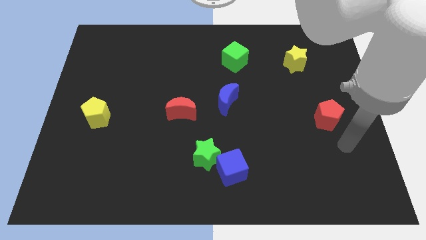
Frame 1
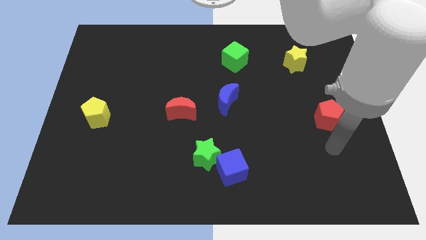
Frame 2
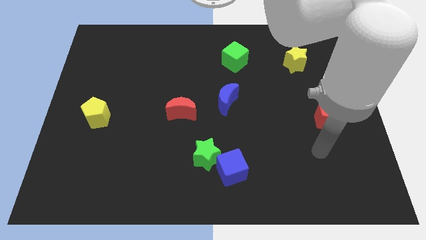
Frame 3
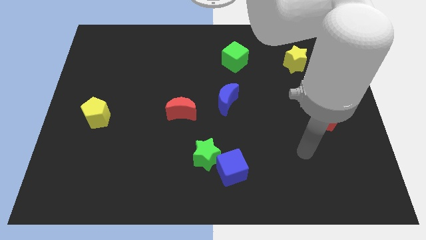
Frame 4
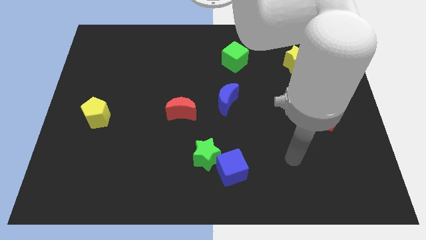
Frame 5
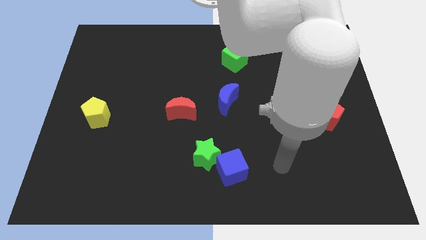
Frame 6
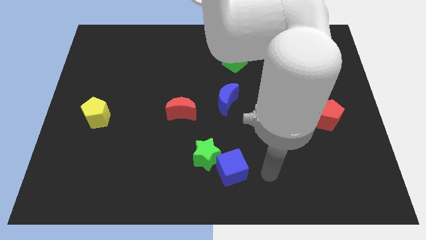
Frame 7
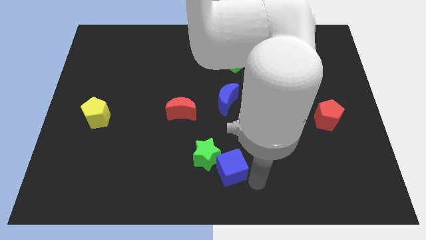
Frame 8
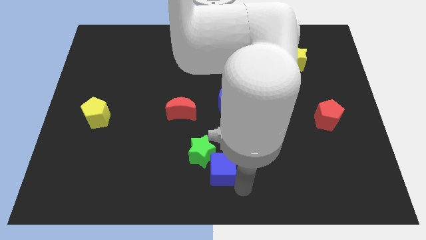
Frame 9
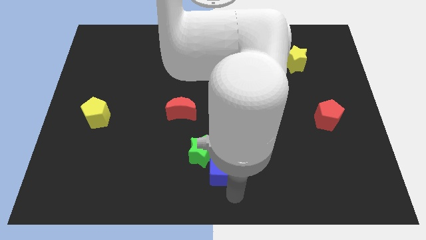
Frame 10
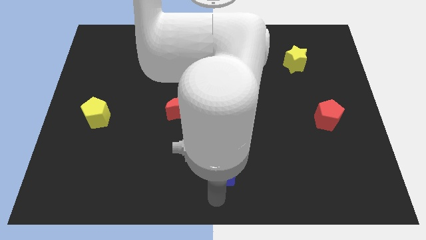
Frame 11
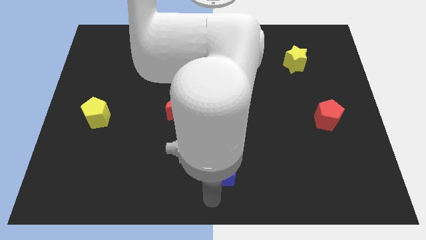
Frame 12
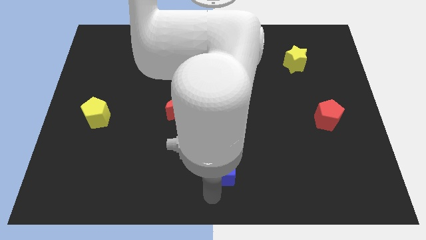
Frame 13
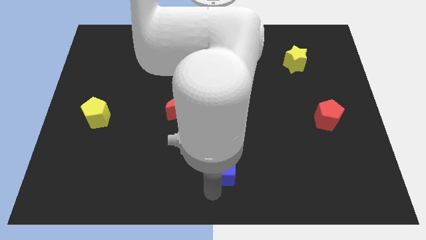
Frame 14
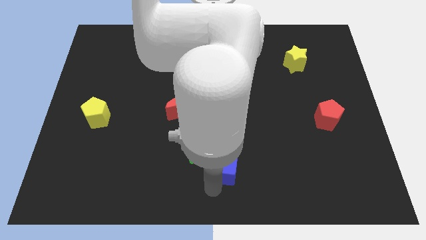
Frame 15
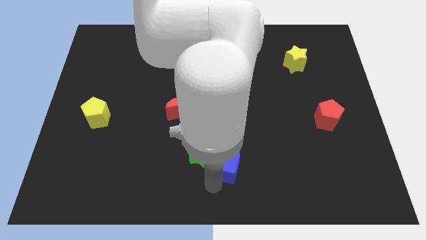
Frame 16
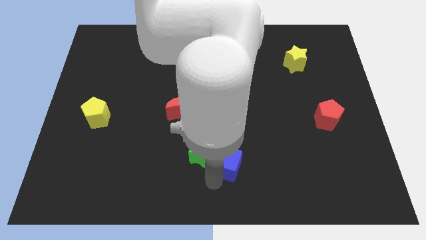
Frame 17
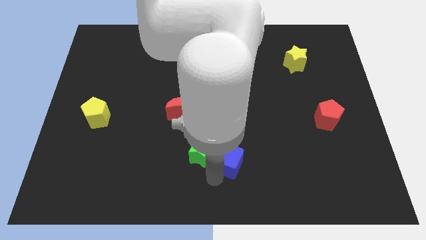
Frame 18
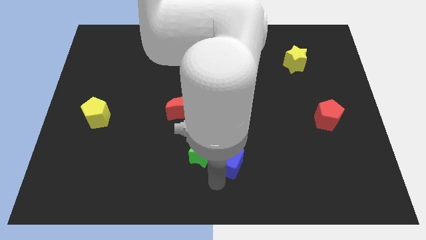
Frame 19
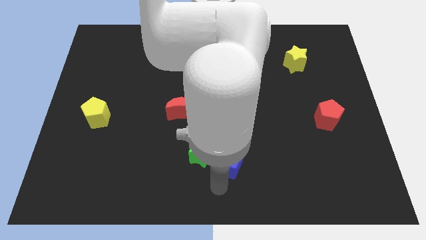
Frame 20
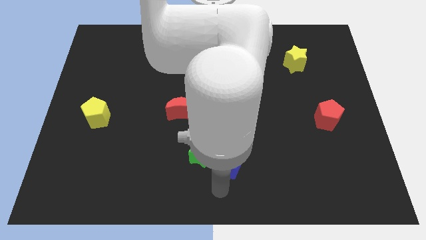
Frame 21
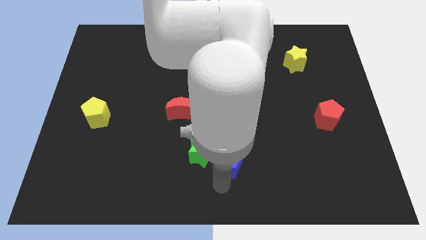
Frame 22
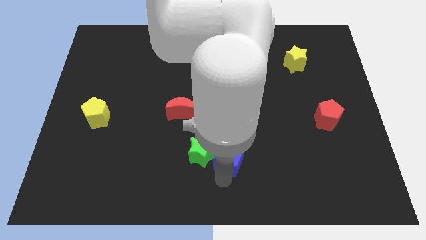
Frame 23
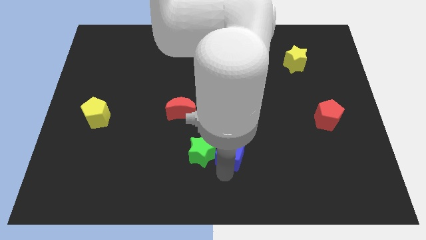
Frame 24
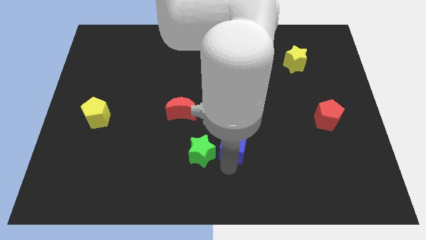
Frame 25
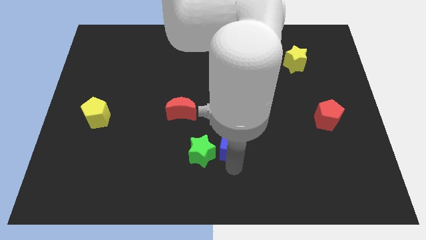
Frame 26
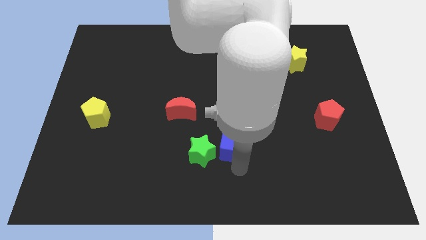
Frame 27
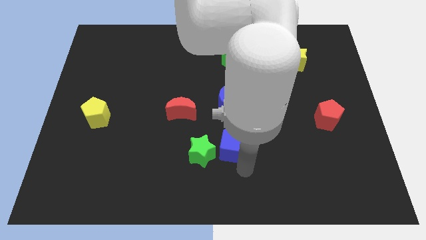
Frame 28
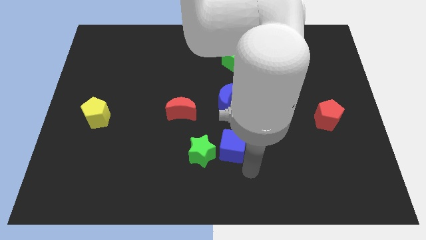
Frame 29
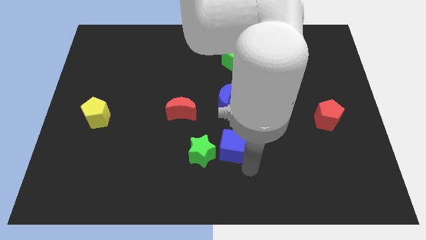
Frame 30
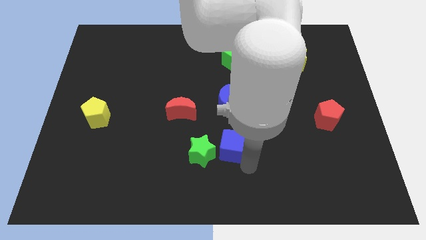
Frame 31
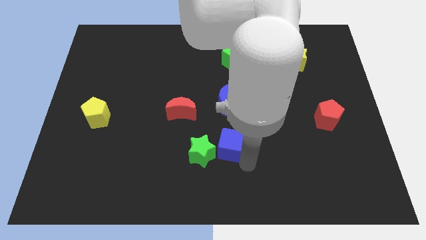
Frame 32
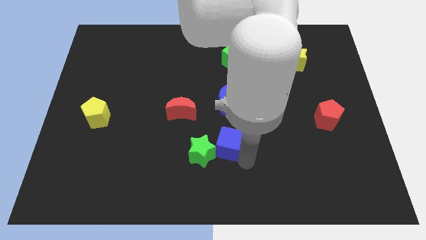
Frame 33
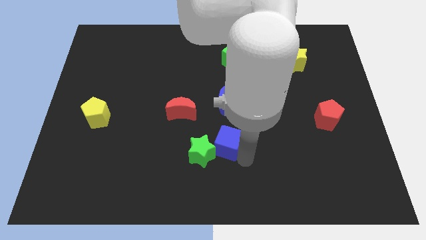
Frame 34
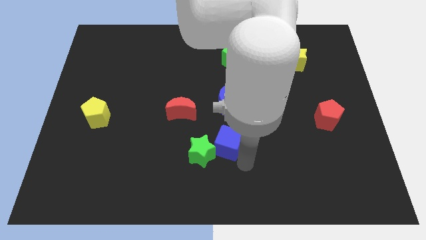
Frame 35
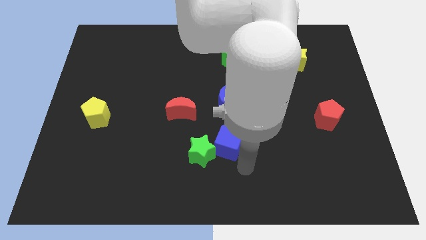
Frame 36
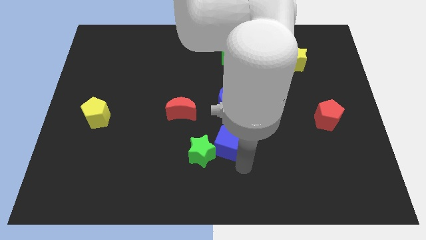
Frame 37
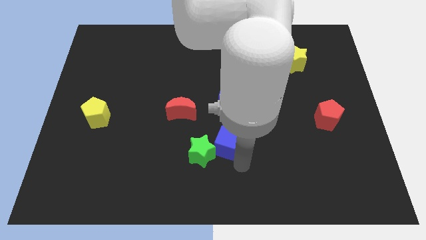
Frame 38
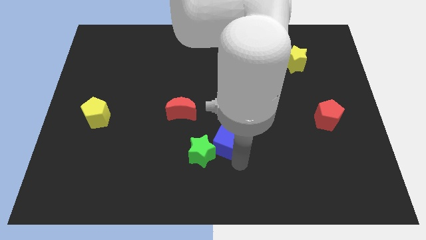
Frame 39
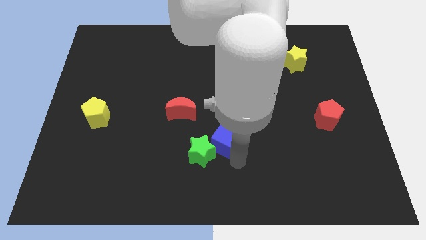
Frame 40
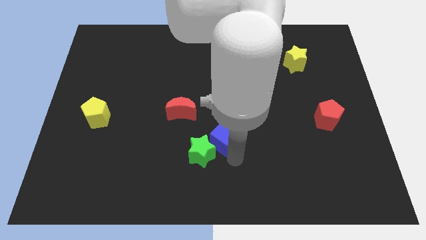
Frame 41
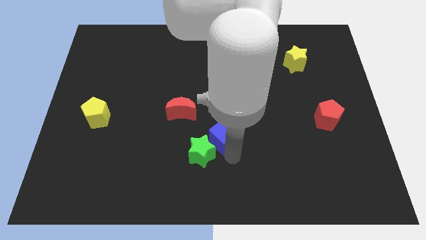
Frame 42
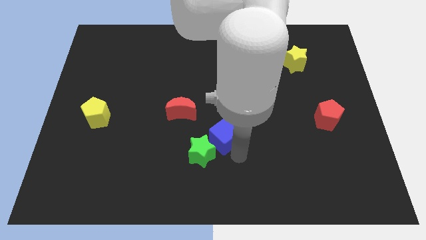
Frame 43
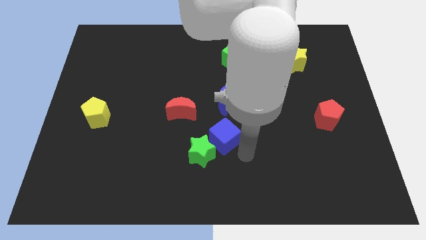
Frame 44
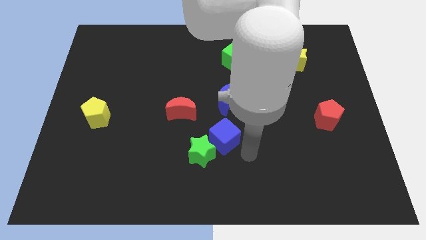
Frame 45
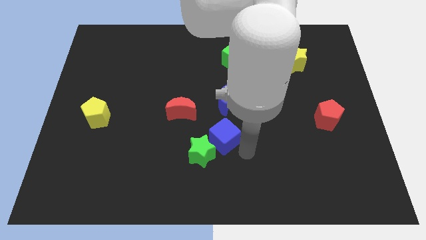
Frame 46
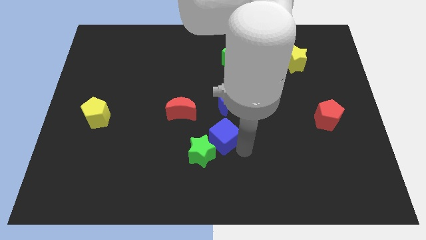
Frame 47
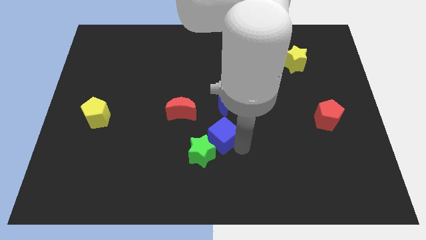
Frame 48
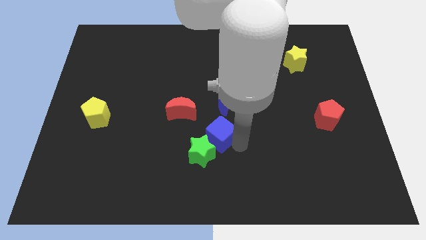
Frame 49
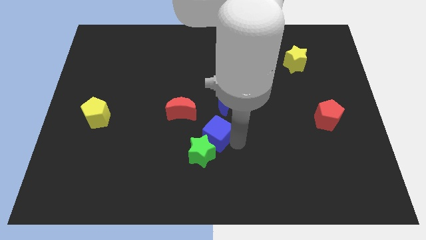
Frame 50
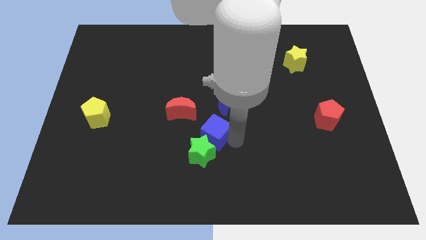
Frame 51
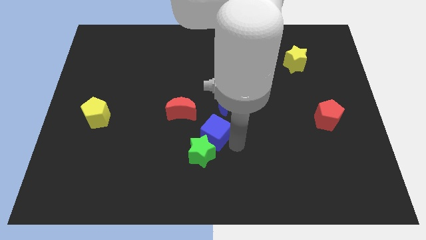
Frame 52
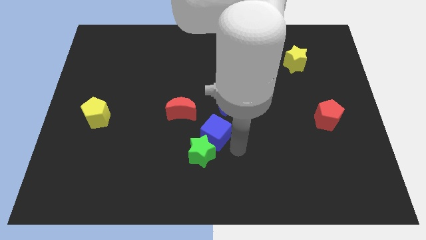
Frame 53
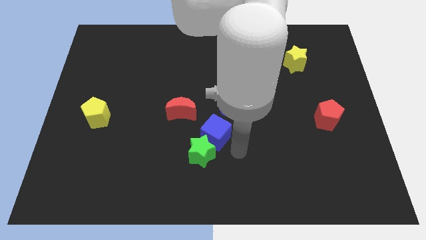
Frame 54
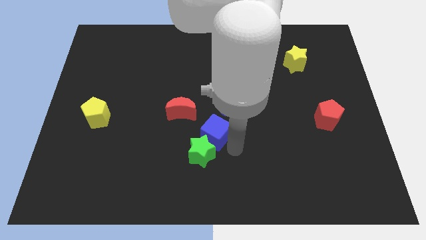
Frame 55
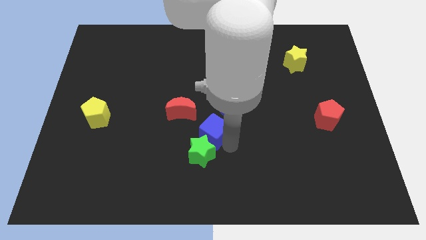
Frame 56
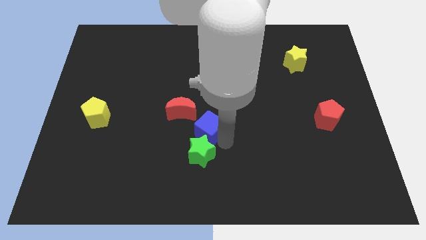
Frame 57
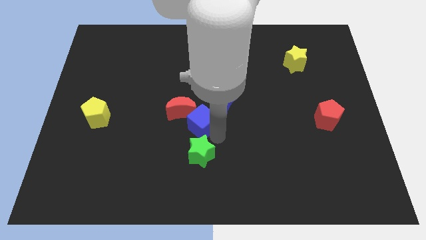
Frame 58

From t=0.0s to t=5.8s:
put the blue cube close to the red moon

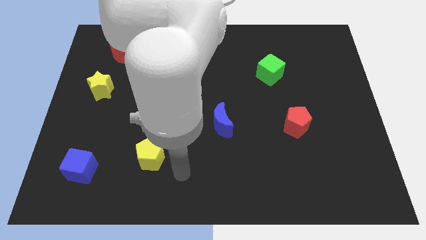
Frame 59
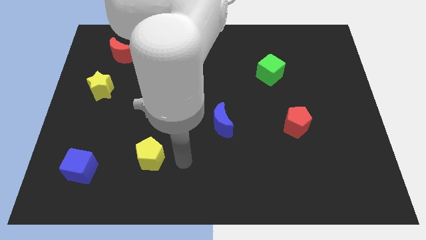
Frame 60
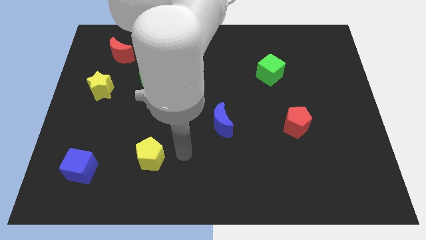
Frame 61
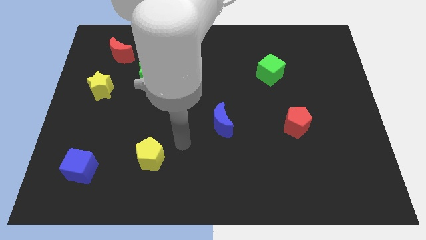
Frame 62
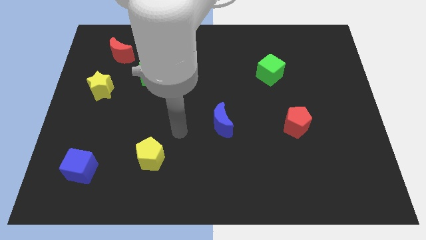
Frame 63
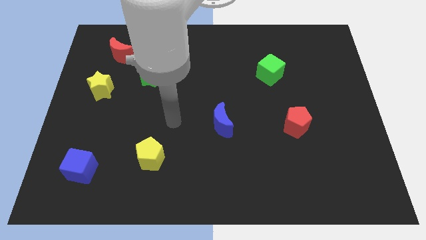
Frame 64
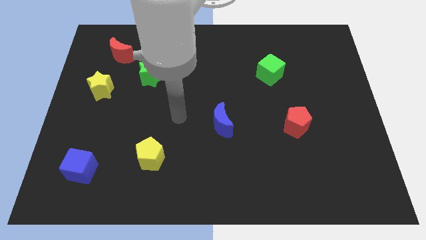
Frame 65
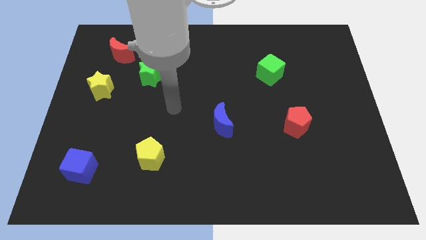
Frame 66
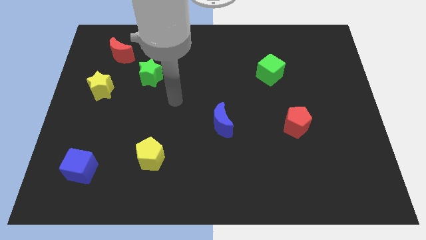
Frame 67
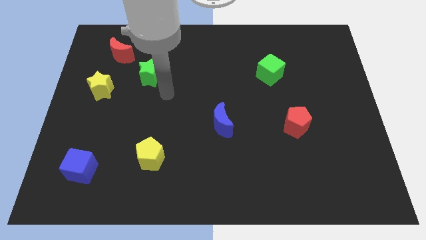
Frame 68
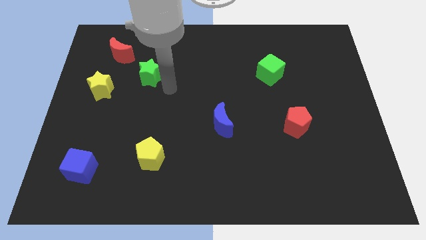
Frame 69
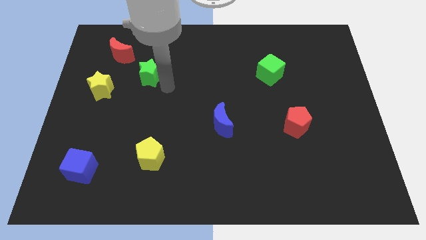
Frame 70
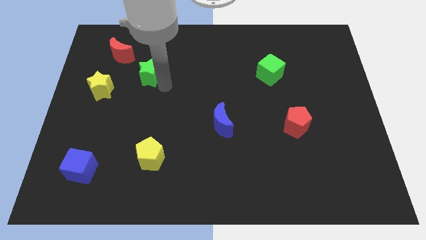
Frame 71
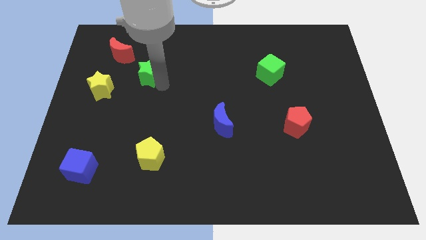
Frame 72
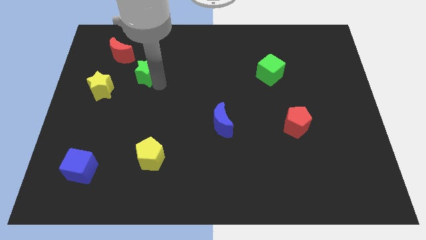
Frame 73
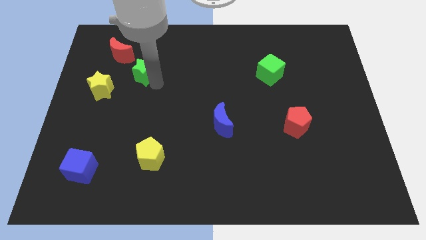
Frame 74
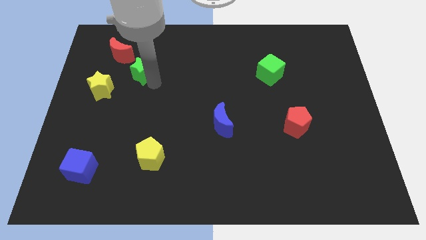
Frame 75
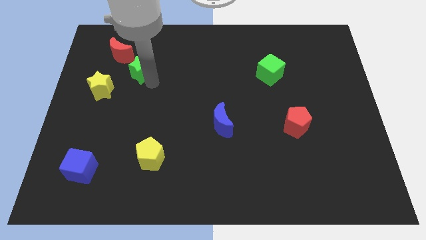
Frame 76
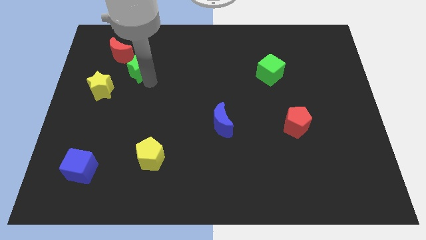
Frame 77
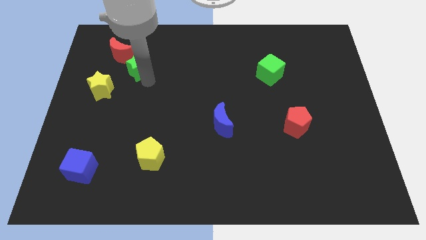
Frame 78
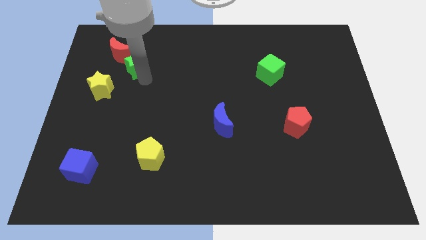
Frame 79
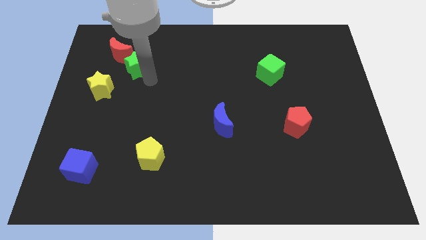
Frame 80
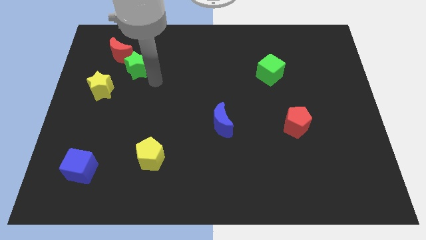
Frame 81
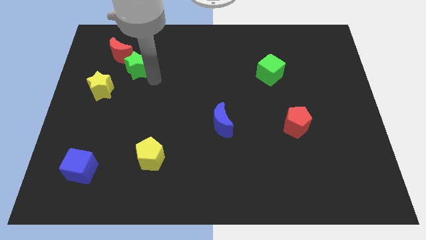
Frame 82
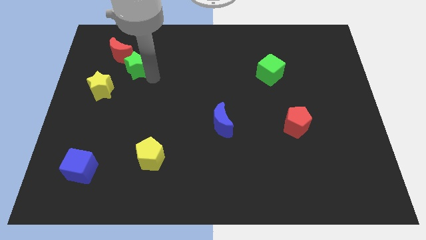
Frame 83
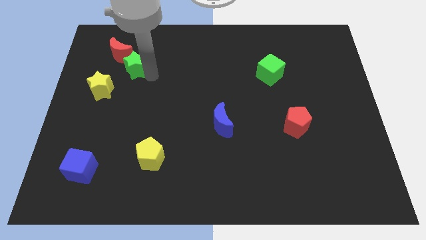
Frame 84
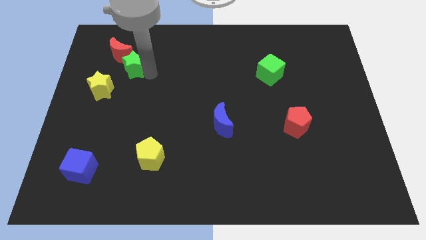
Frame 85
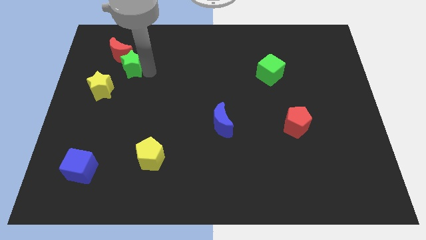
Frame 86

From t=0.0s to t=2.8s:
move the green star towards the red moon
